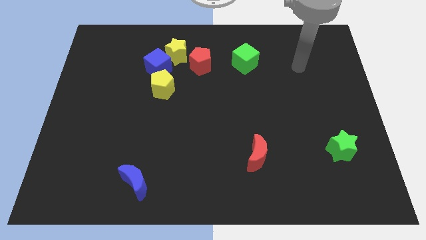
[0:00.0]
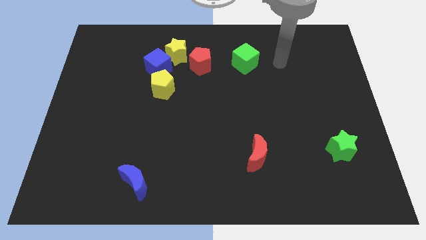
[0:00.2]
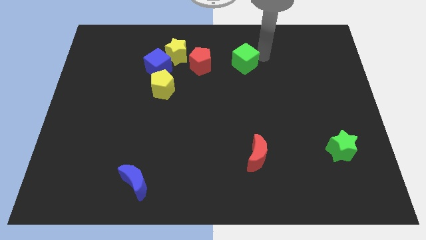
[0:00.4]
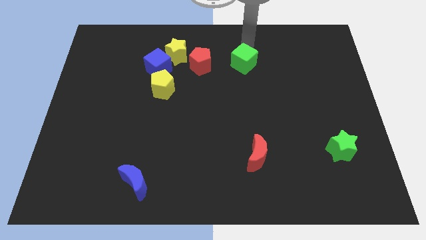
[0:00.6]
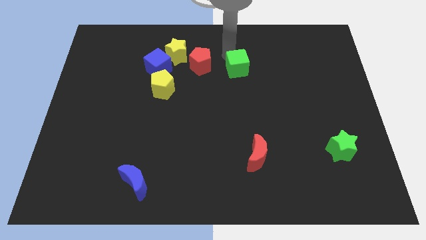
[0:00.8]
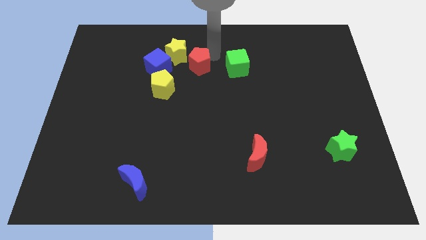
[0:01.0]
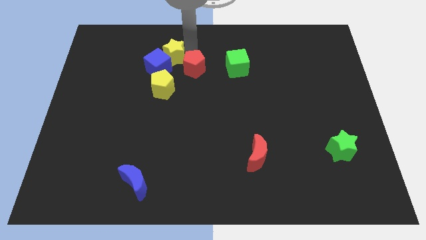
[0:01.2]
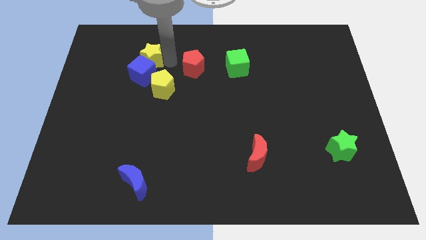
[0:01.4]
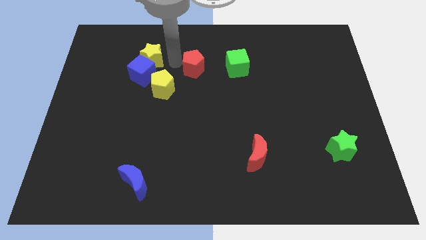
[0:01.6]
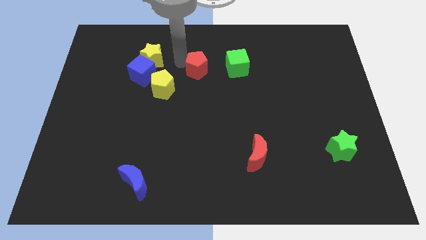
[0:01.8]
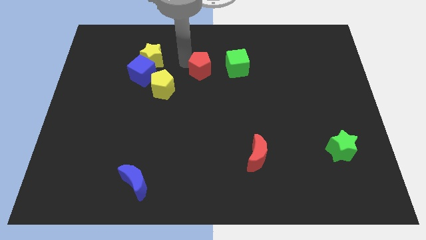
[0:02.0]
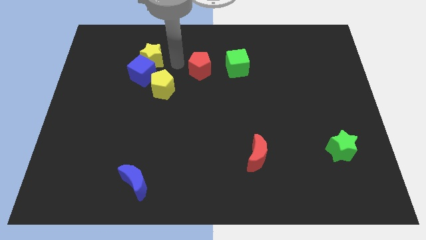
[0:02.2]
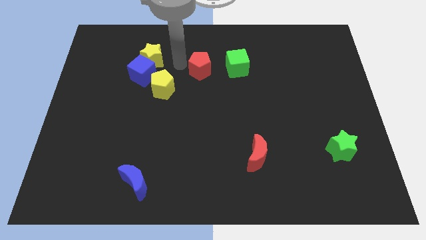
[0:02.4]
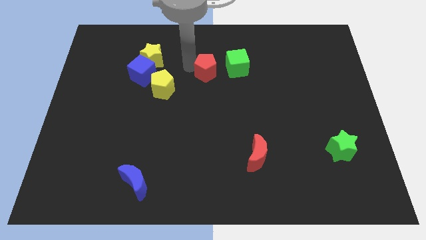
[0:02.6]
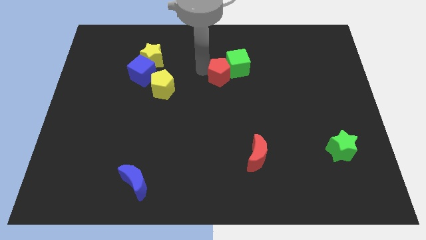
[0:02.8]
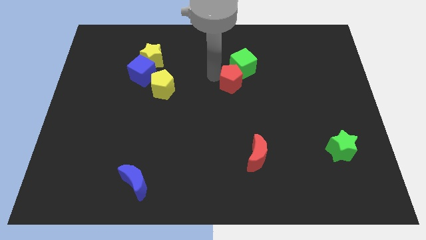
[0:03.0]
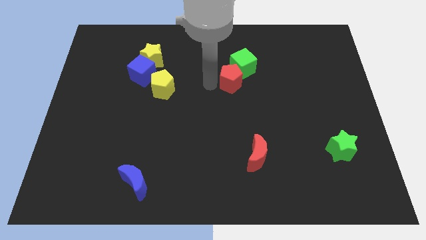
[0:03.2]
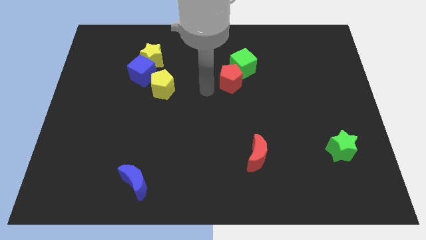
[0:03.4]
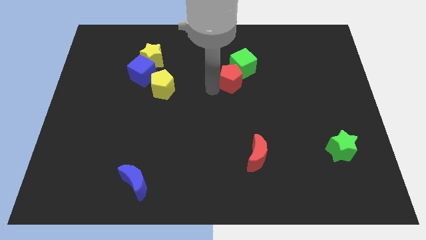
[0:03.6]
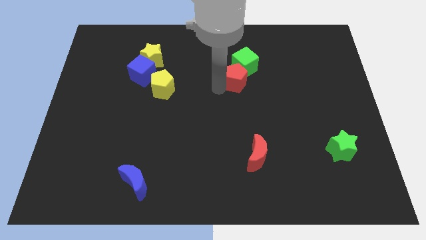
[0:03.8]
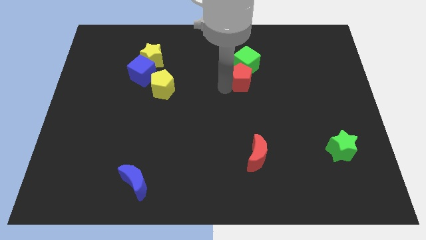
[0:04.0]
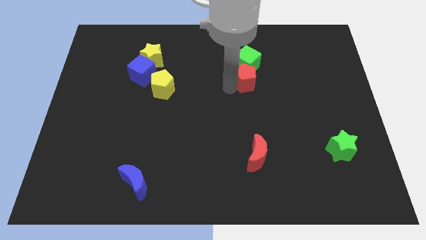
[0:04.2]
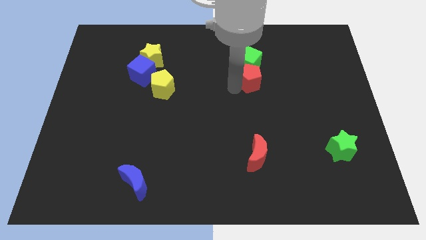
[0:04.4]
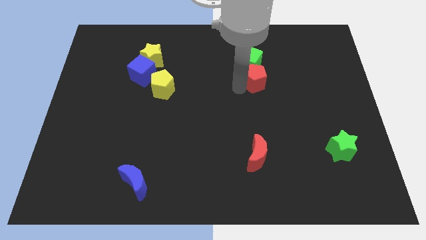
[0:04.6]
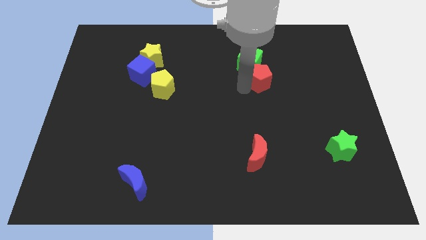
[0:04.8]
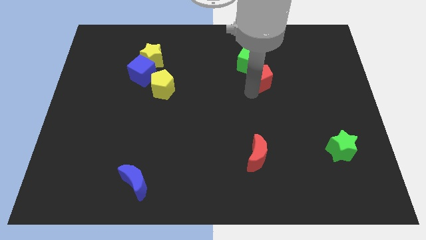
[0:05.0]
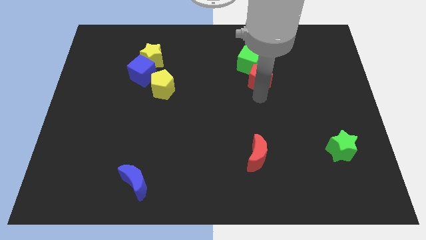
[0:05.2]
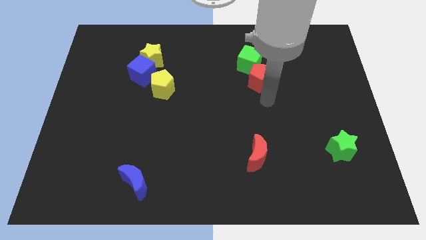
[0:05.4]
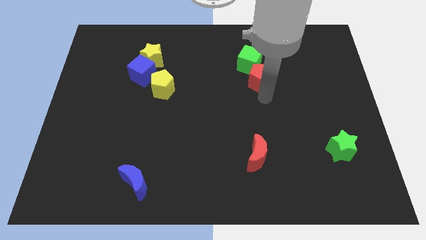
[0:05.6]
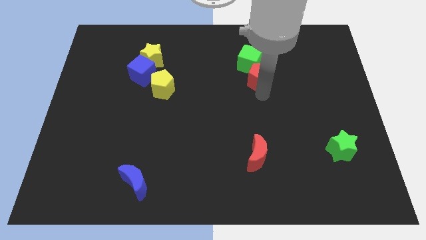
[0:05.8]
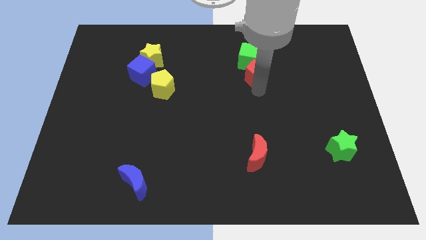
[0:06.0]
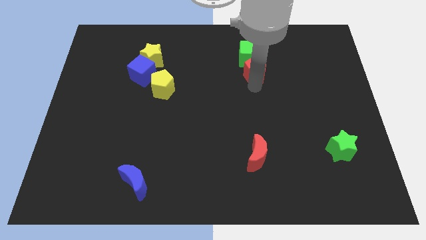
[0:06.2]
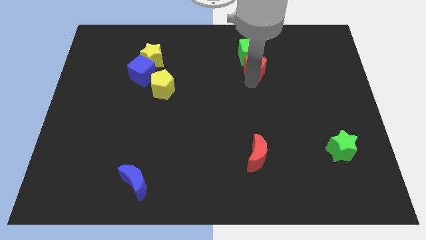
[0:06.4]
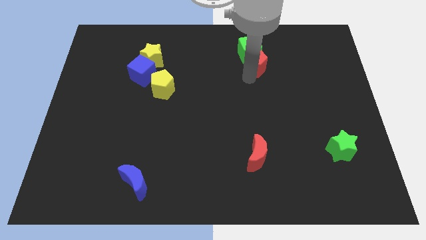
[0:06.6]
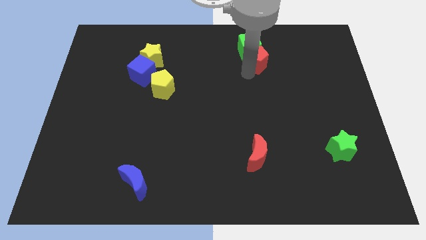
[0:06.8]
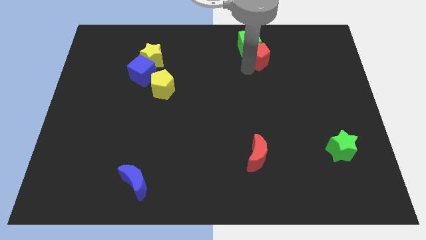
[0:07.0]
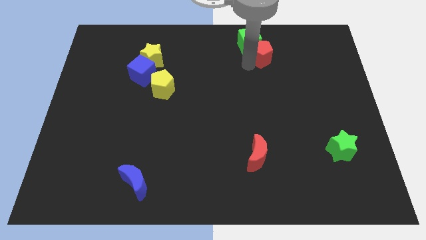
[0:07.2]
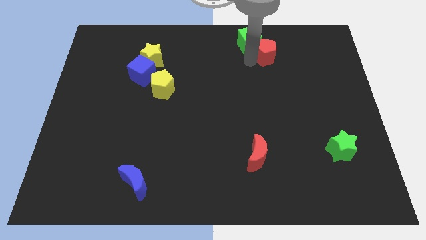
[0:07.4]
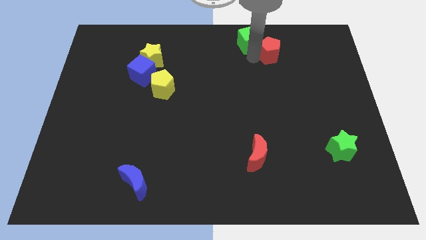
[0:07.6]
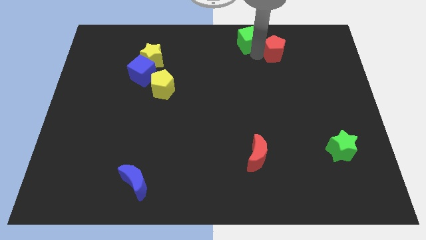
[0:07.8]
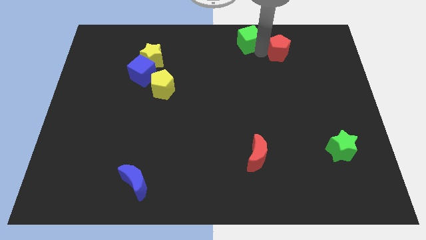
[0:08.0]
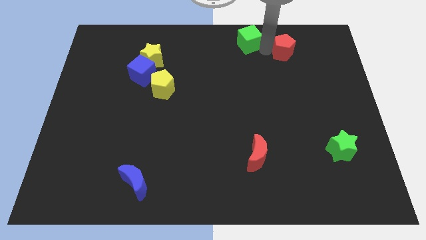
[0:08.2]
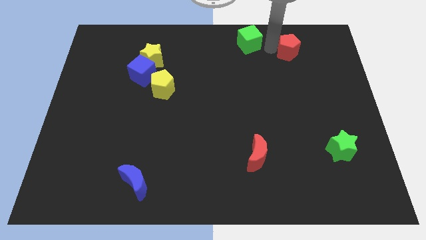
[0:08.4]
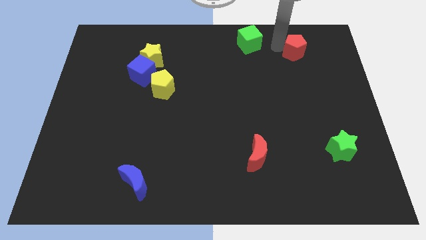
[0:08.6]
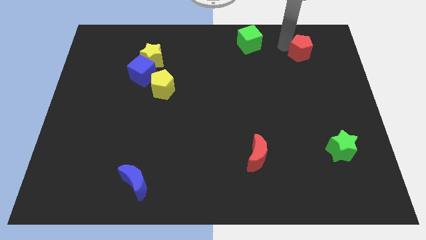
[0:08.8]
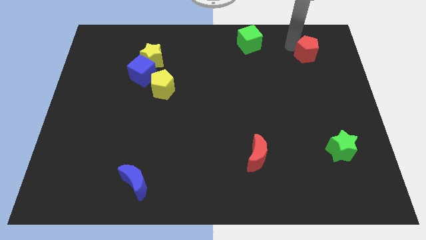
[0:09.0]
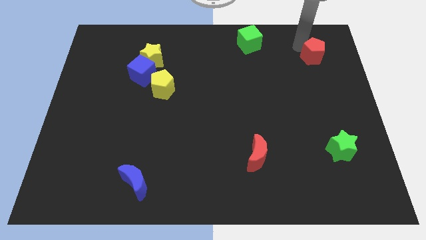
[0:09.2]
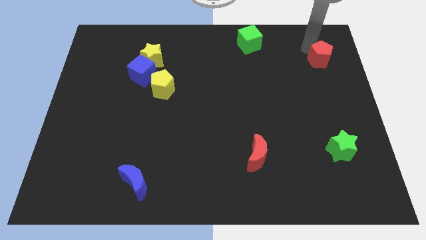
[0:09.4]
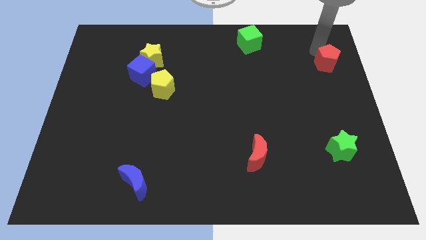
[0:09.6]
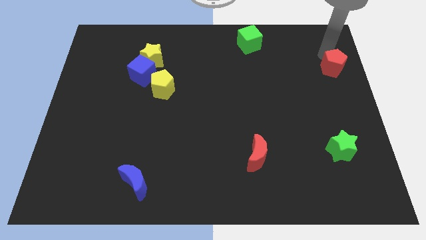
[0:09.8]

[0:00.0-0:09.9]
push the red pentagon to the right side of the board

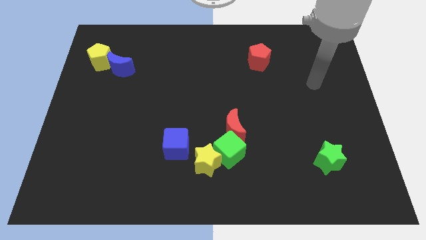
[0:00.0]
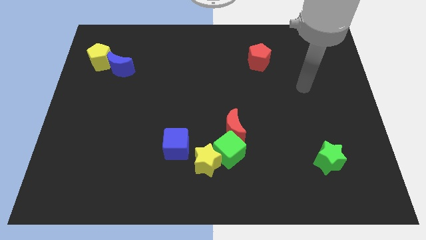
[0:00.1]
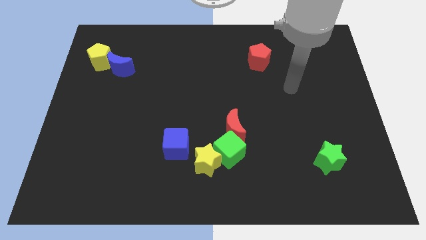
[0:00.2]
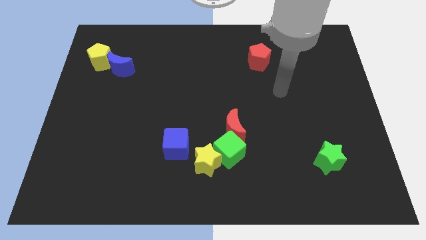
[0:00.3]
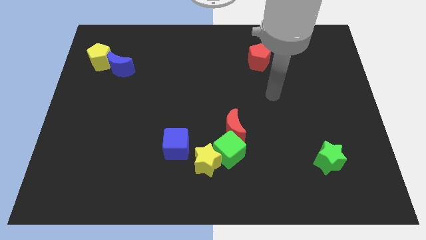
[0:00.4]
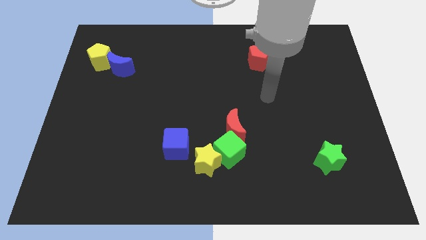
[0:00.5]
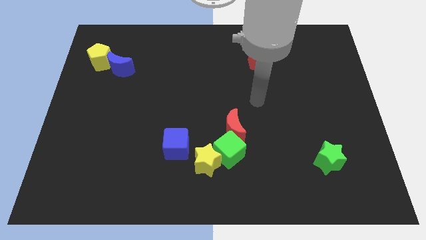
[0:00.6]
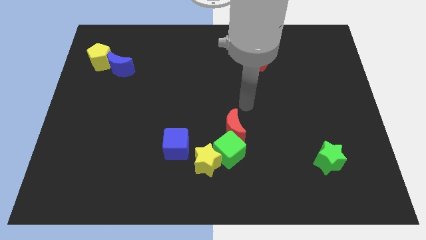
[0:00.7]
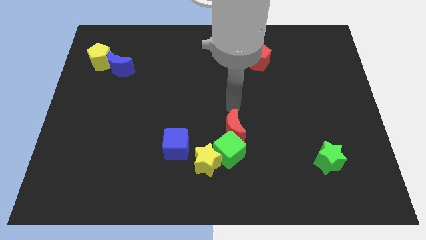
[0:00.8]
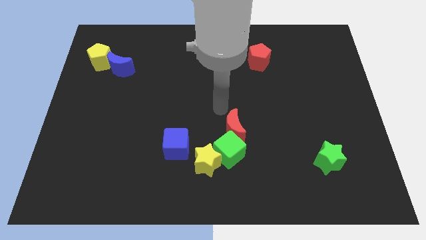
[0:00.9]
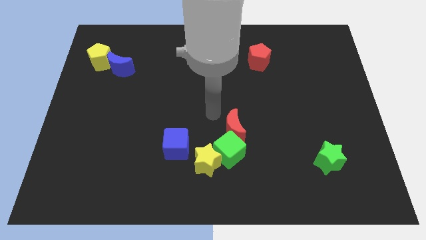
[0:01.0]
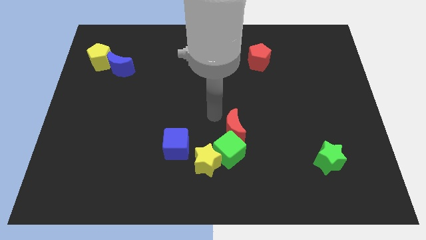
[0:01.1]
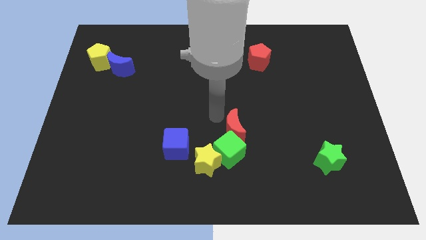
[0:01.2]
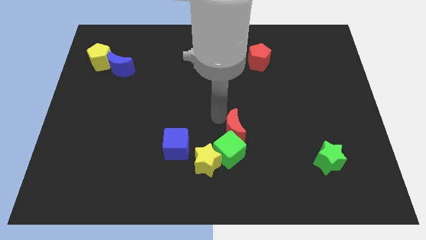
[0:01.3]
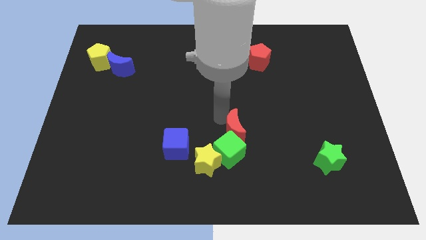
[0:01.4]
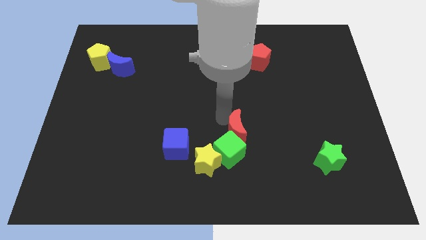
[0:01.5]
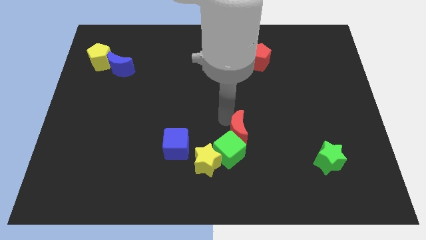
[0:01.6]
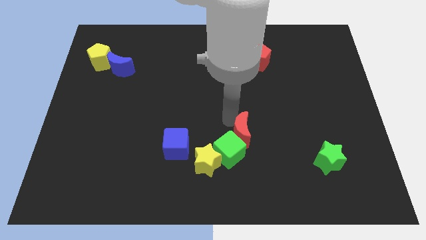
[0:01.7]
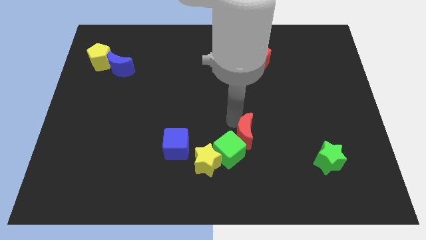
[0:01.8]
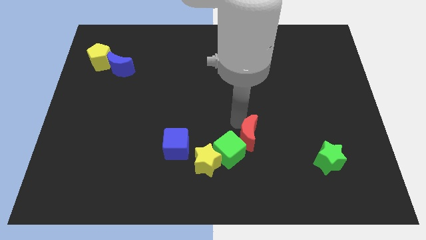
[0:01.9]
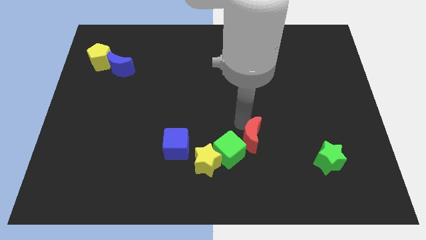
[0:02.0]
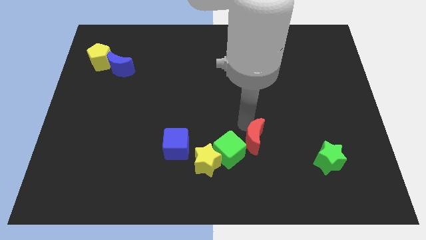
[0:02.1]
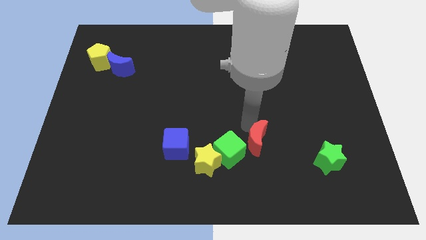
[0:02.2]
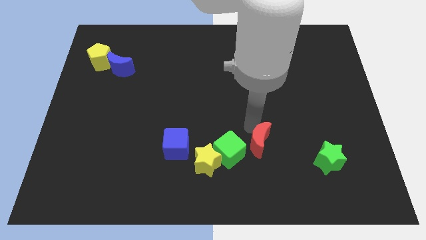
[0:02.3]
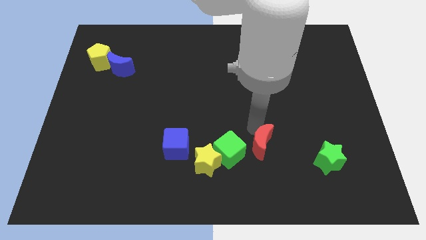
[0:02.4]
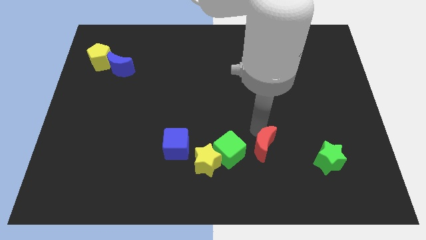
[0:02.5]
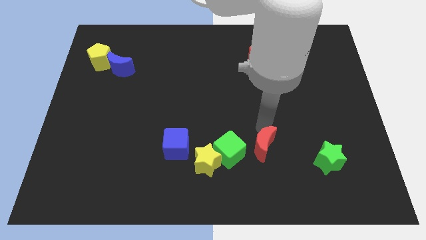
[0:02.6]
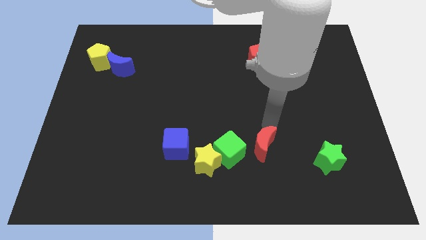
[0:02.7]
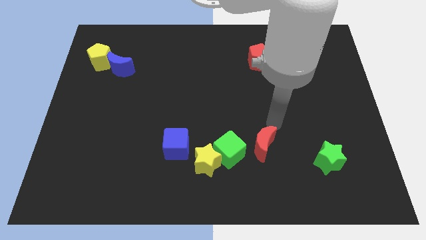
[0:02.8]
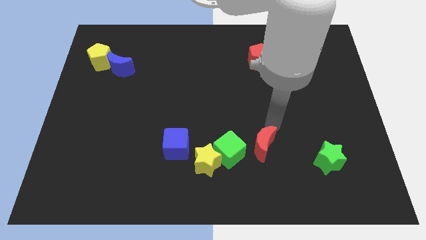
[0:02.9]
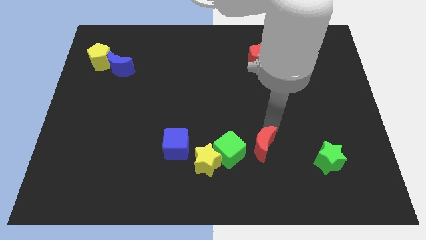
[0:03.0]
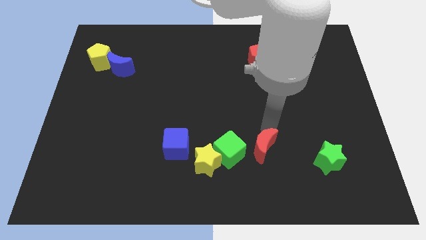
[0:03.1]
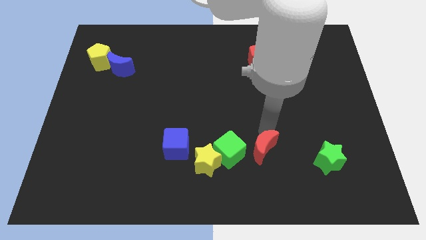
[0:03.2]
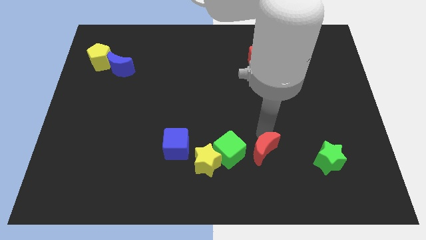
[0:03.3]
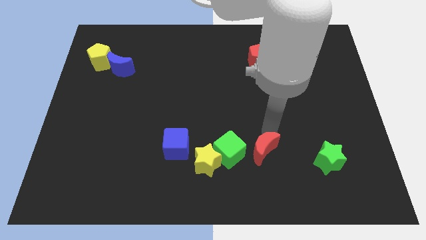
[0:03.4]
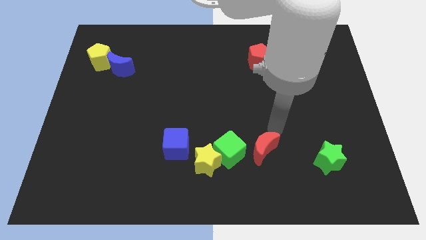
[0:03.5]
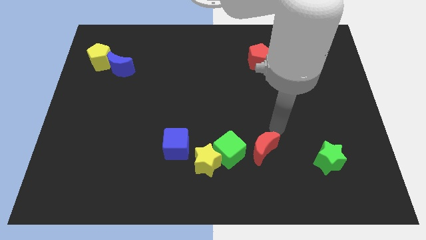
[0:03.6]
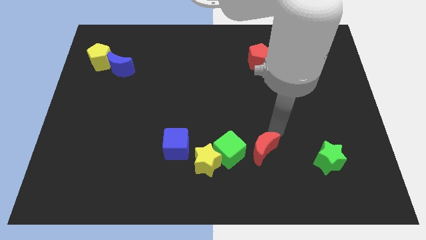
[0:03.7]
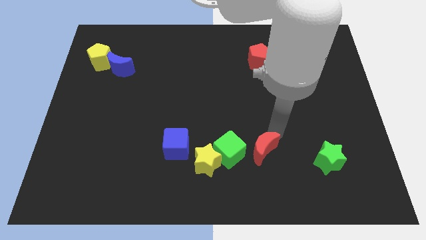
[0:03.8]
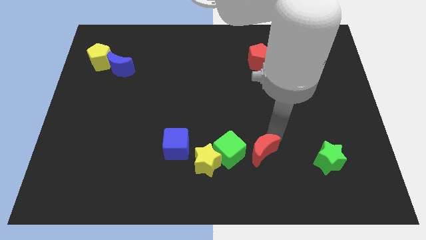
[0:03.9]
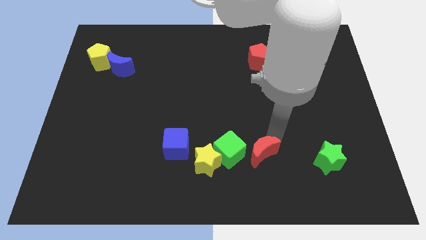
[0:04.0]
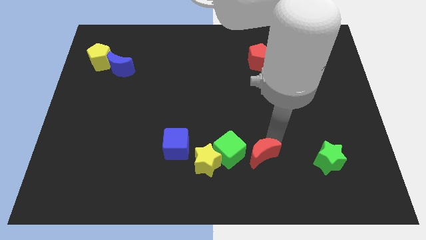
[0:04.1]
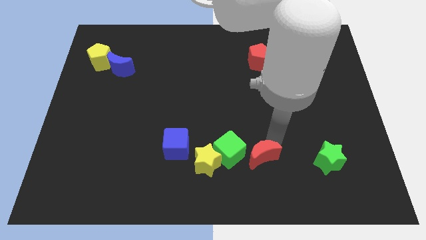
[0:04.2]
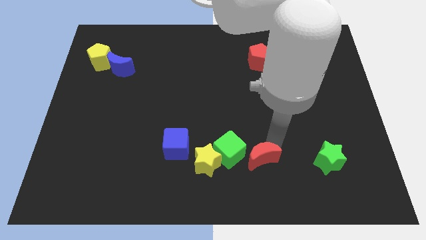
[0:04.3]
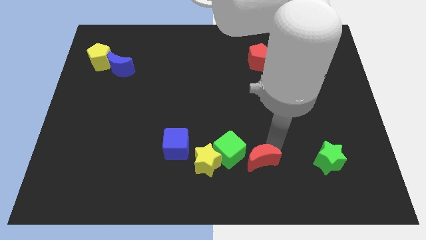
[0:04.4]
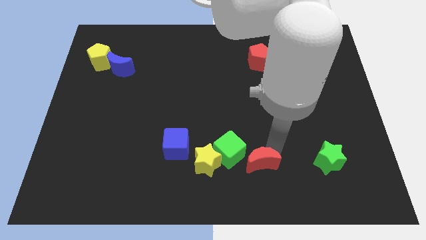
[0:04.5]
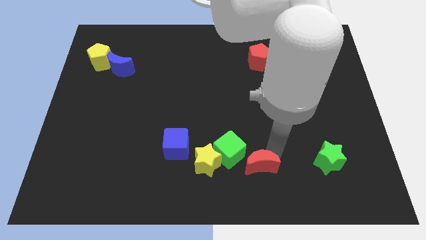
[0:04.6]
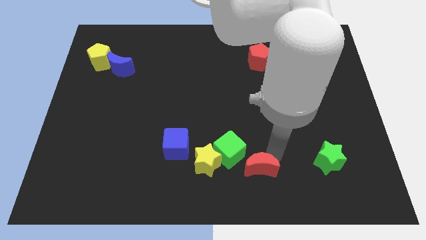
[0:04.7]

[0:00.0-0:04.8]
push the red moon to the bottom
